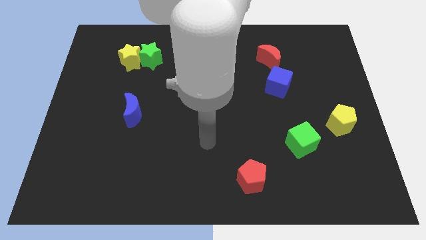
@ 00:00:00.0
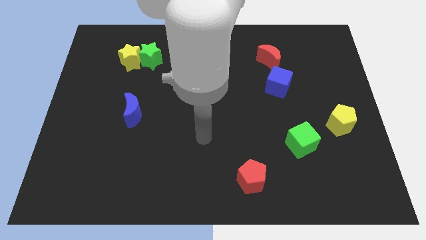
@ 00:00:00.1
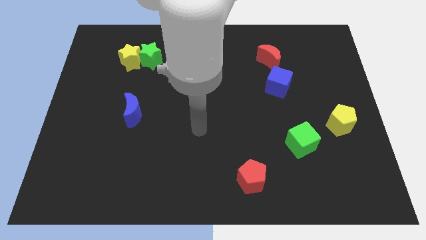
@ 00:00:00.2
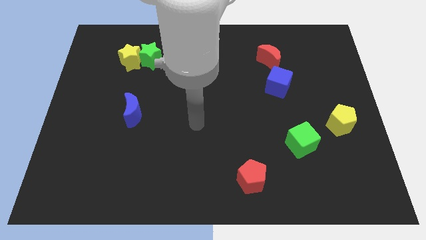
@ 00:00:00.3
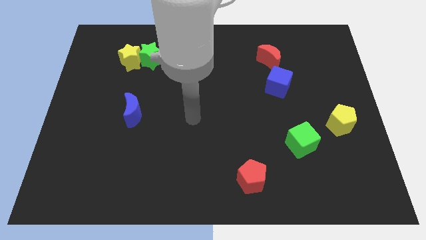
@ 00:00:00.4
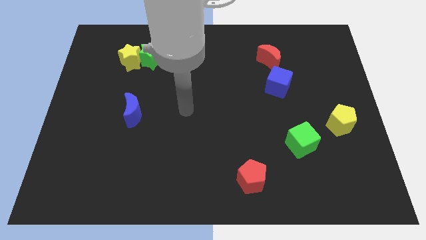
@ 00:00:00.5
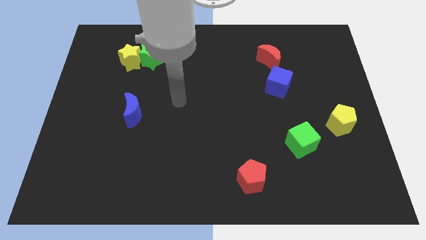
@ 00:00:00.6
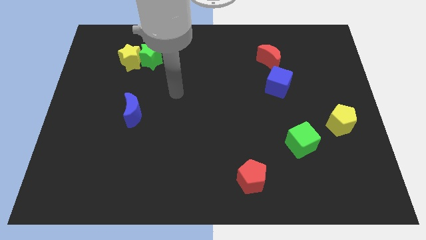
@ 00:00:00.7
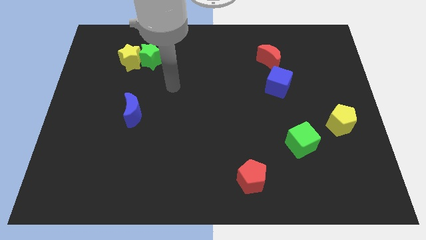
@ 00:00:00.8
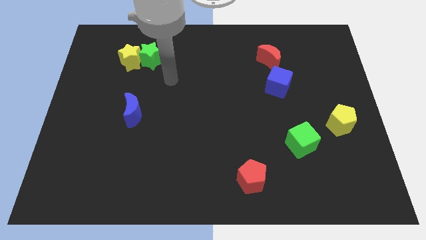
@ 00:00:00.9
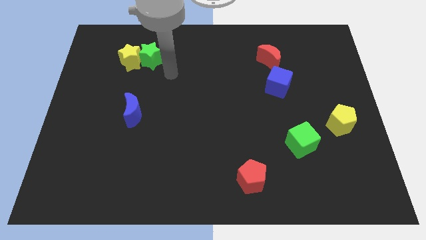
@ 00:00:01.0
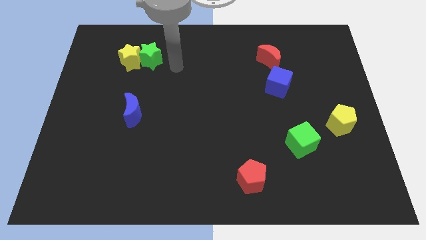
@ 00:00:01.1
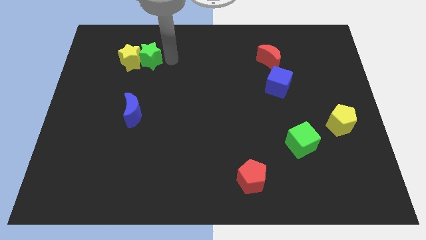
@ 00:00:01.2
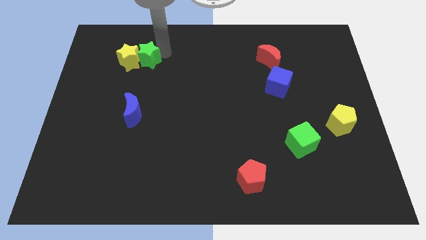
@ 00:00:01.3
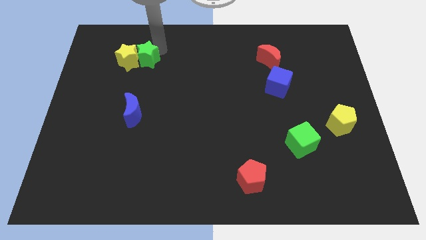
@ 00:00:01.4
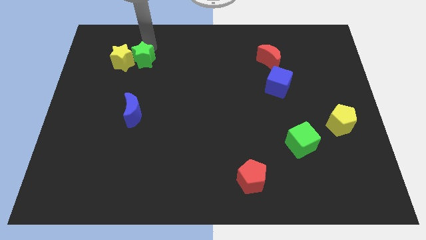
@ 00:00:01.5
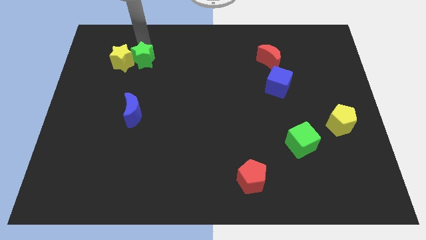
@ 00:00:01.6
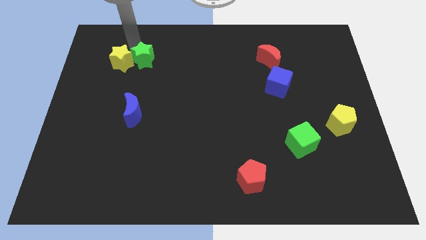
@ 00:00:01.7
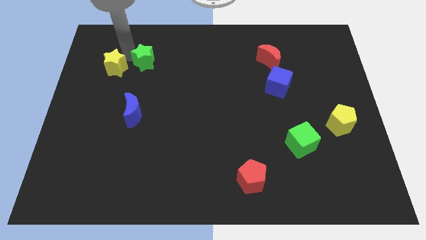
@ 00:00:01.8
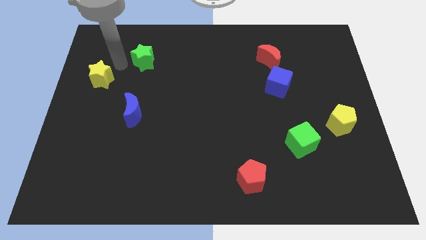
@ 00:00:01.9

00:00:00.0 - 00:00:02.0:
pull the green star apart from the yellow star

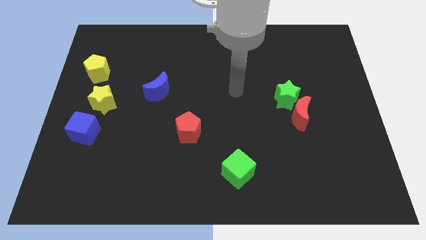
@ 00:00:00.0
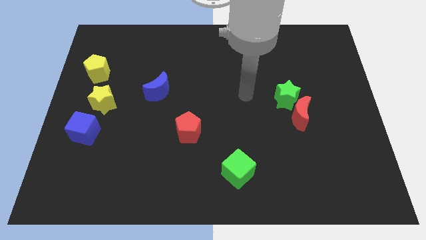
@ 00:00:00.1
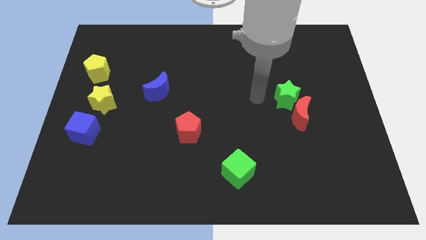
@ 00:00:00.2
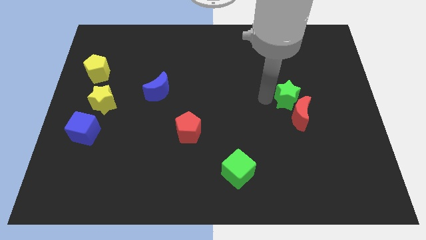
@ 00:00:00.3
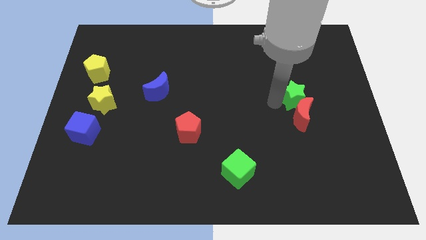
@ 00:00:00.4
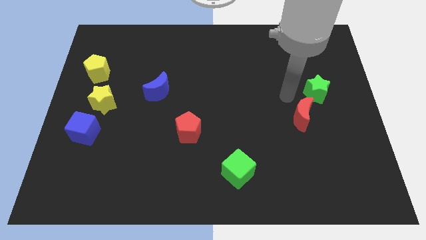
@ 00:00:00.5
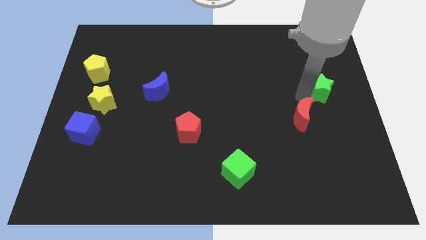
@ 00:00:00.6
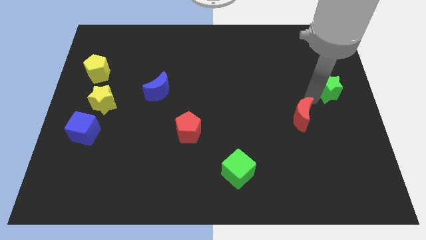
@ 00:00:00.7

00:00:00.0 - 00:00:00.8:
separate the red moon from the green star

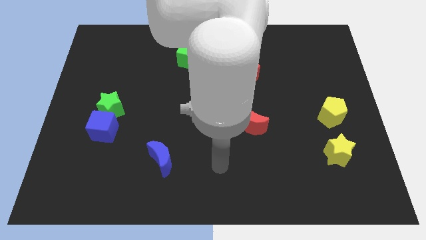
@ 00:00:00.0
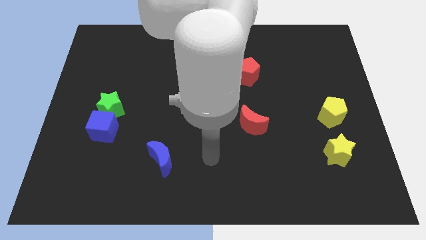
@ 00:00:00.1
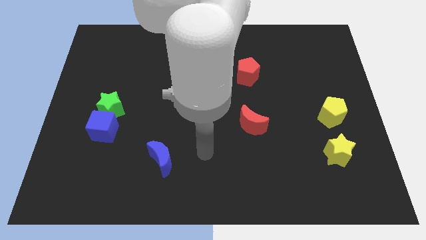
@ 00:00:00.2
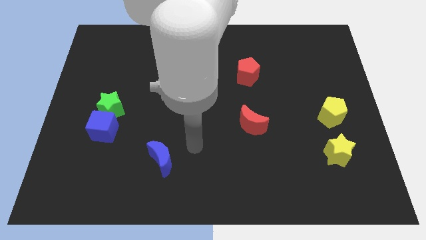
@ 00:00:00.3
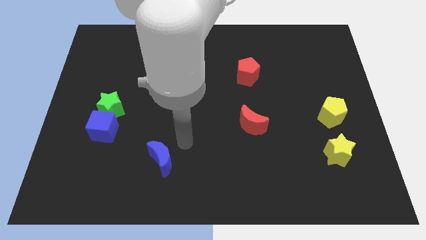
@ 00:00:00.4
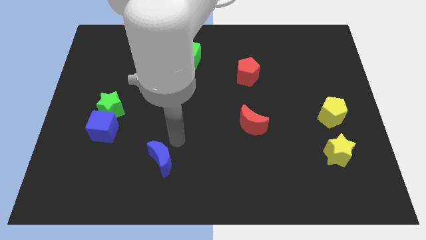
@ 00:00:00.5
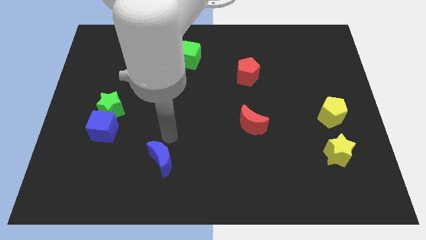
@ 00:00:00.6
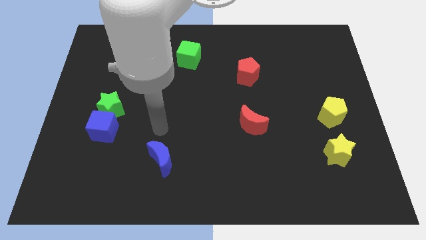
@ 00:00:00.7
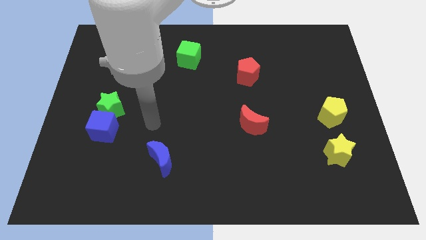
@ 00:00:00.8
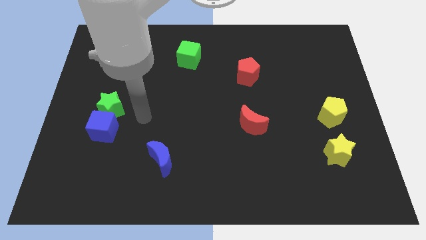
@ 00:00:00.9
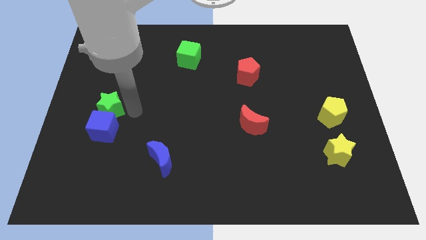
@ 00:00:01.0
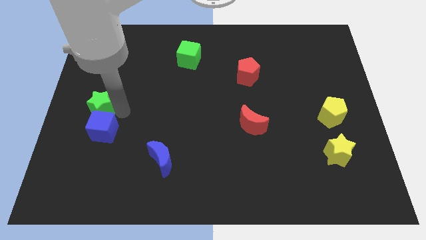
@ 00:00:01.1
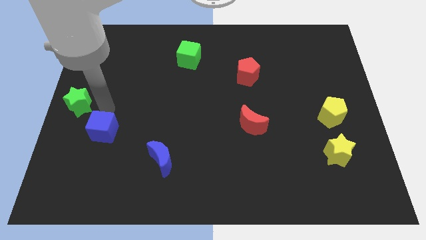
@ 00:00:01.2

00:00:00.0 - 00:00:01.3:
separate the blue cube from the green star

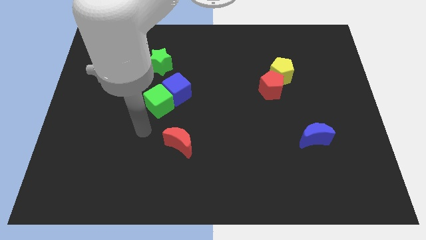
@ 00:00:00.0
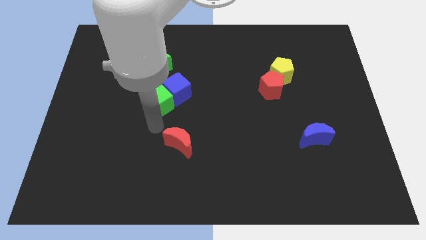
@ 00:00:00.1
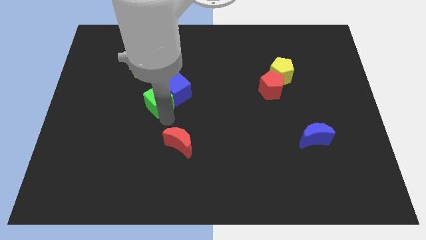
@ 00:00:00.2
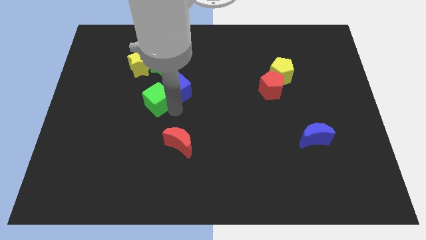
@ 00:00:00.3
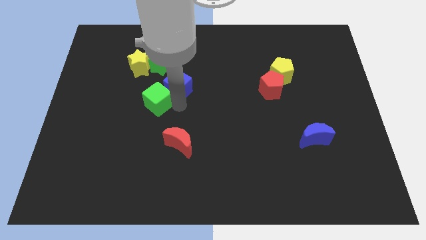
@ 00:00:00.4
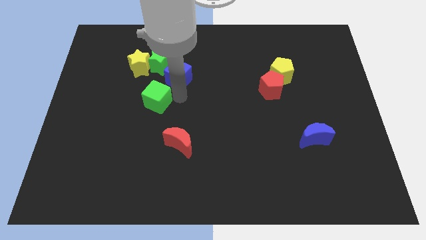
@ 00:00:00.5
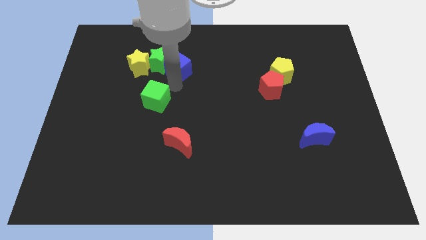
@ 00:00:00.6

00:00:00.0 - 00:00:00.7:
separate the green cube from the blue cube

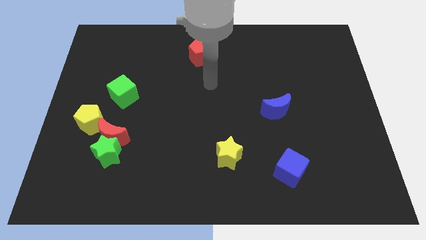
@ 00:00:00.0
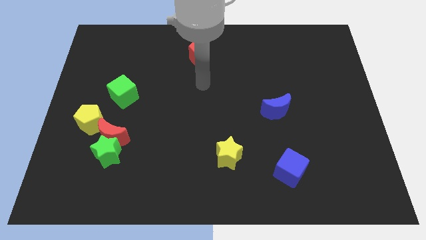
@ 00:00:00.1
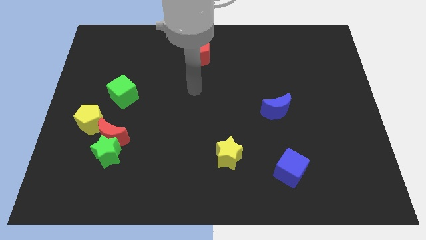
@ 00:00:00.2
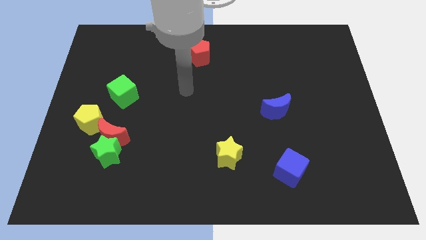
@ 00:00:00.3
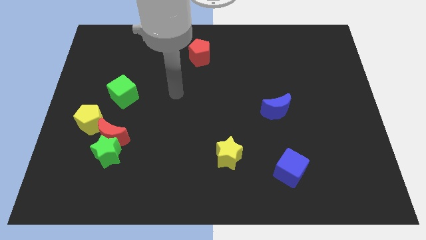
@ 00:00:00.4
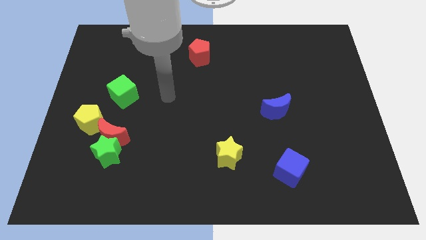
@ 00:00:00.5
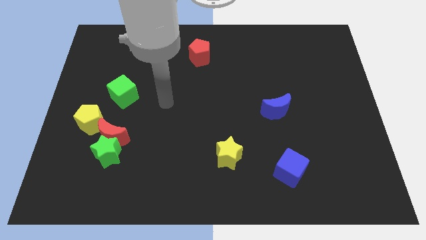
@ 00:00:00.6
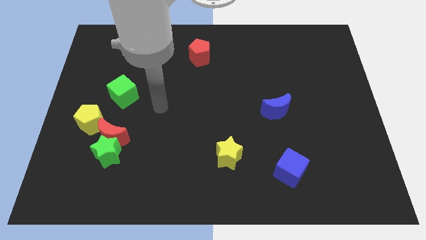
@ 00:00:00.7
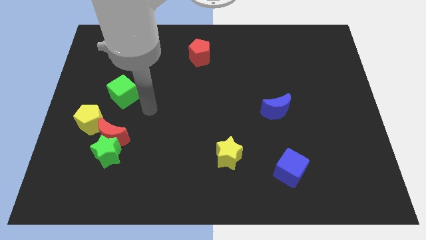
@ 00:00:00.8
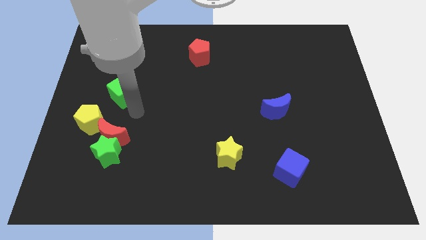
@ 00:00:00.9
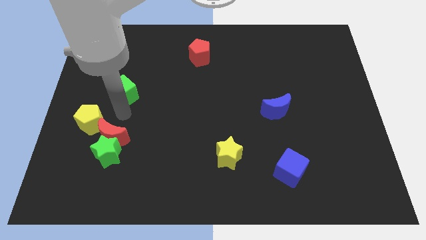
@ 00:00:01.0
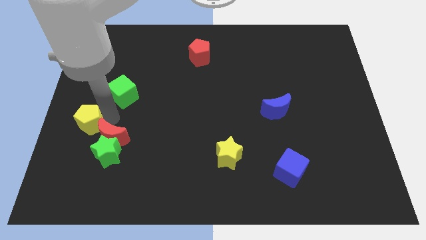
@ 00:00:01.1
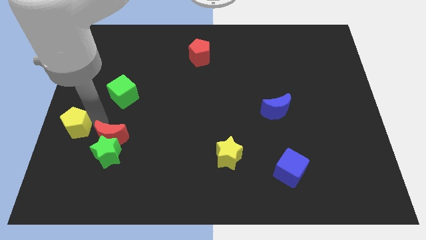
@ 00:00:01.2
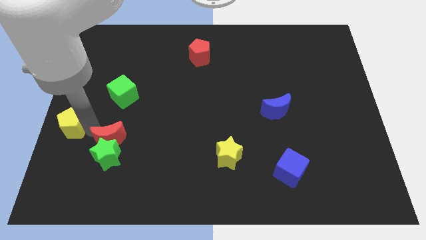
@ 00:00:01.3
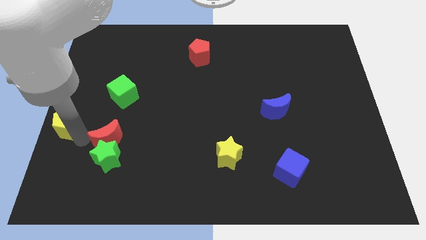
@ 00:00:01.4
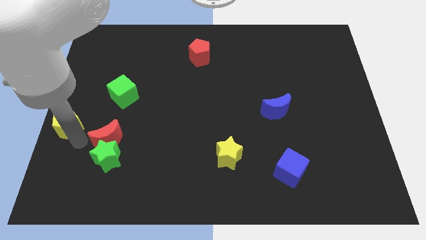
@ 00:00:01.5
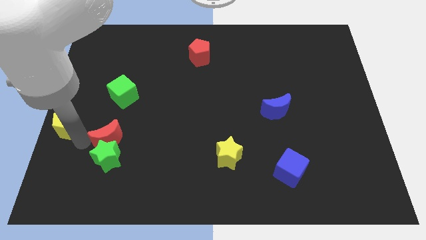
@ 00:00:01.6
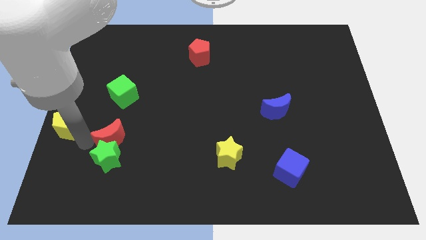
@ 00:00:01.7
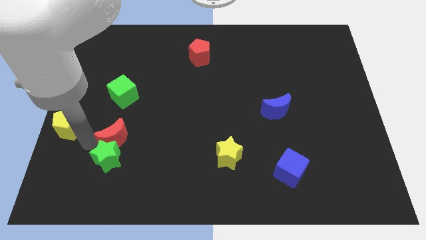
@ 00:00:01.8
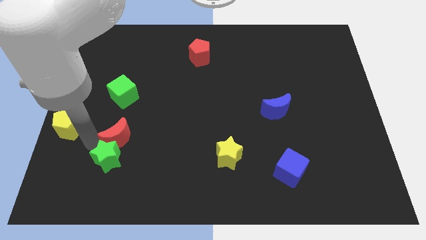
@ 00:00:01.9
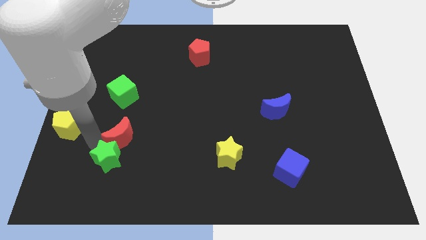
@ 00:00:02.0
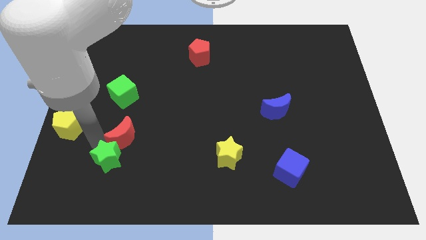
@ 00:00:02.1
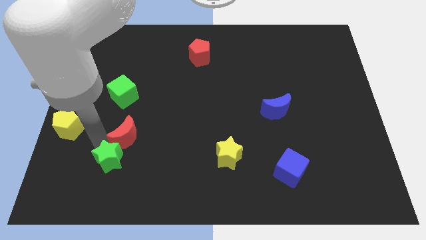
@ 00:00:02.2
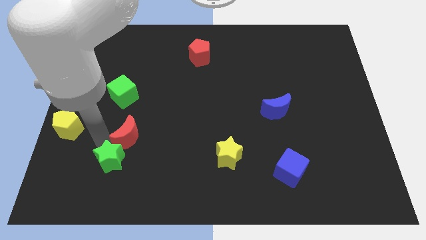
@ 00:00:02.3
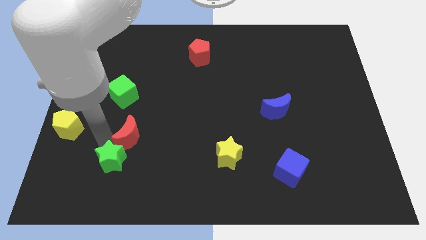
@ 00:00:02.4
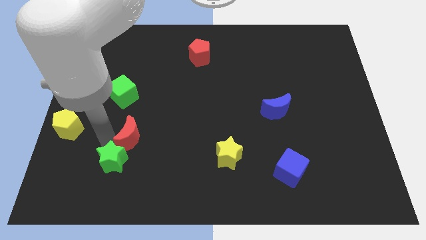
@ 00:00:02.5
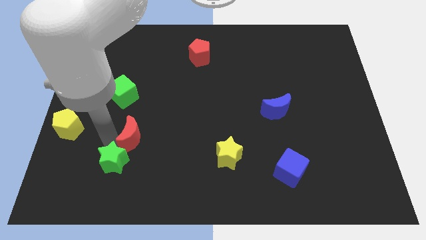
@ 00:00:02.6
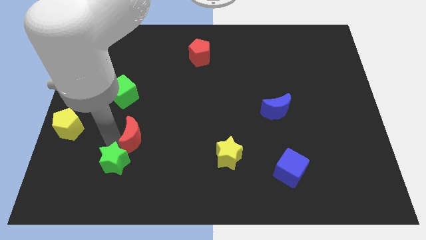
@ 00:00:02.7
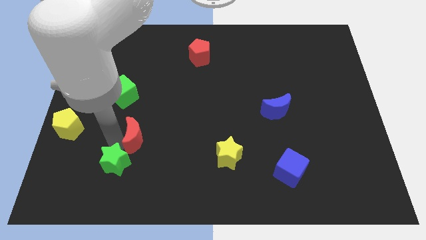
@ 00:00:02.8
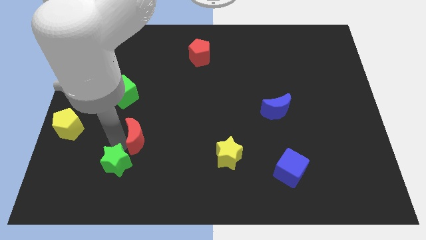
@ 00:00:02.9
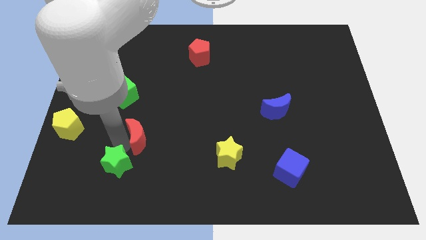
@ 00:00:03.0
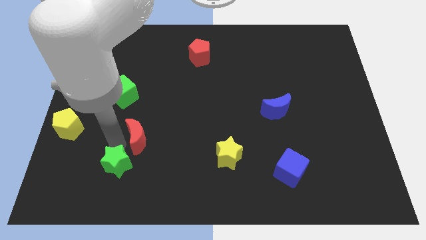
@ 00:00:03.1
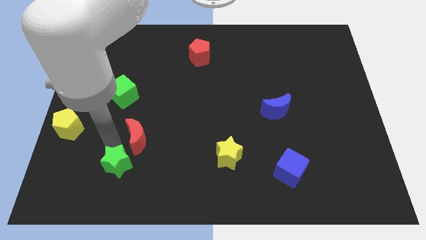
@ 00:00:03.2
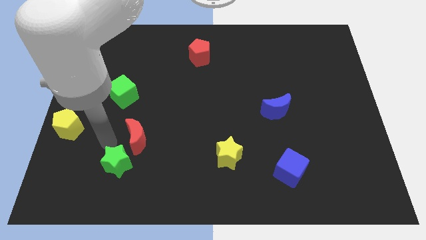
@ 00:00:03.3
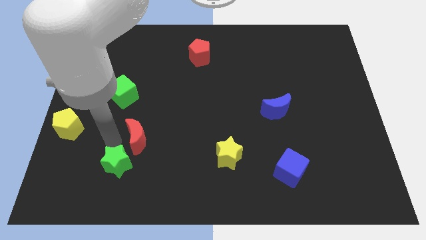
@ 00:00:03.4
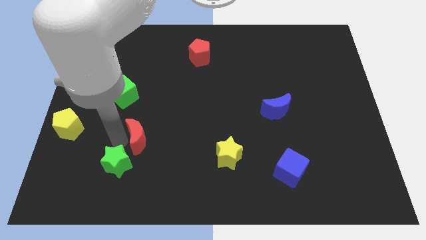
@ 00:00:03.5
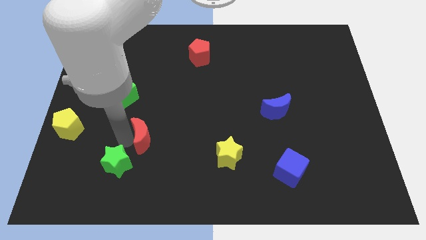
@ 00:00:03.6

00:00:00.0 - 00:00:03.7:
move the red moon away from the green star and yellow pentagon

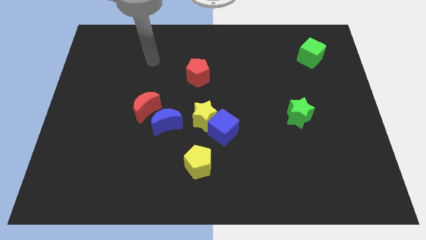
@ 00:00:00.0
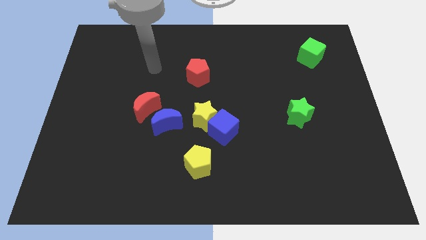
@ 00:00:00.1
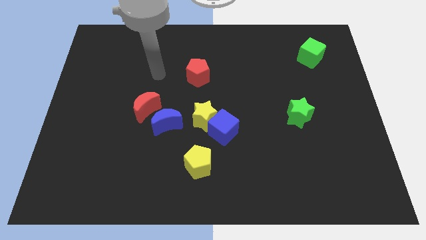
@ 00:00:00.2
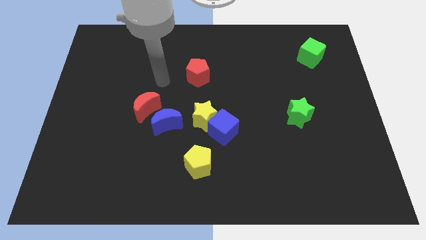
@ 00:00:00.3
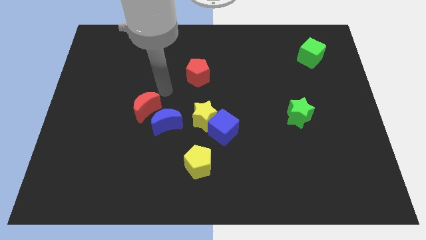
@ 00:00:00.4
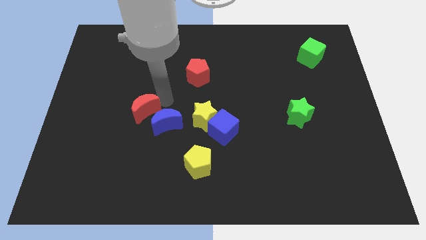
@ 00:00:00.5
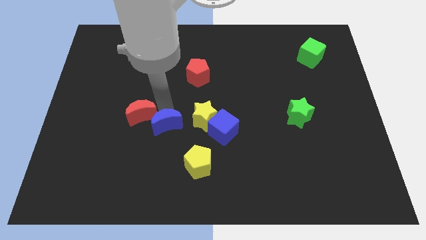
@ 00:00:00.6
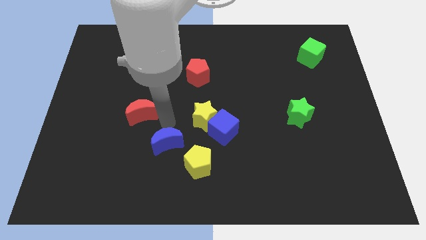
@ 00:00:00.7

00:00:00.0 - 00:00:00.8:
move the red moon away from the blue moon
